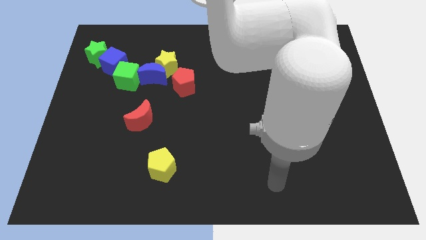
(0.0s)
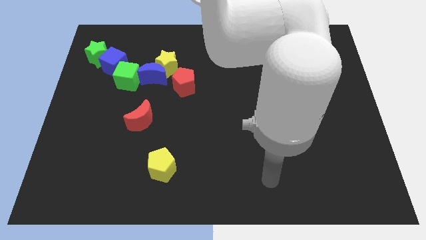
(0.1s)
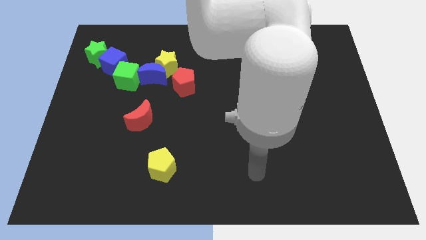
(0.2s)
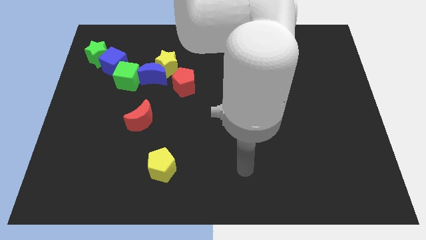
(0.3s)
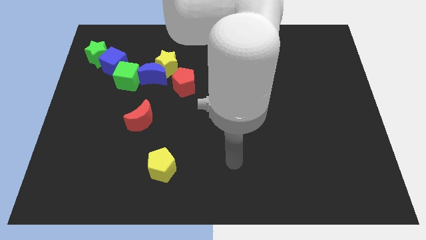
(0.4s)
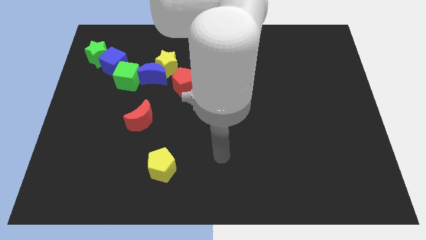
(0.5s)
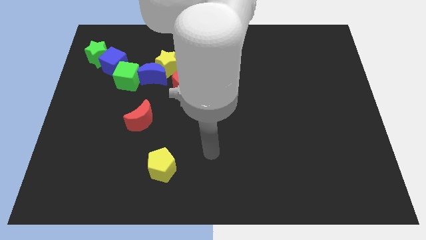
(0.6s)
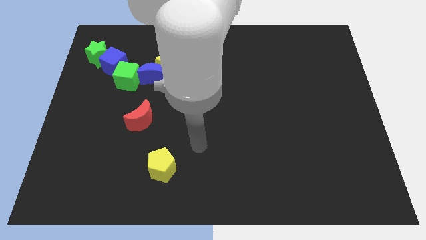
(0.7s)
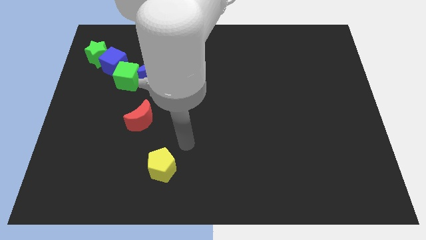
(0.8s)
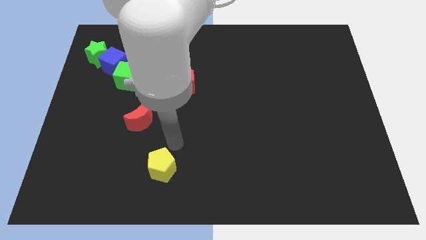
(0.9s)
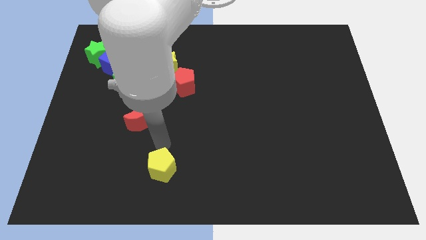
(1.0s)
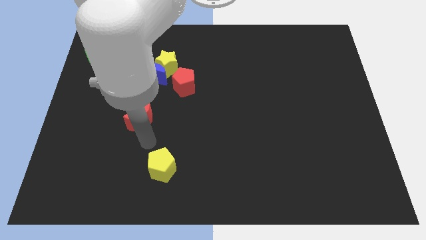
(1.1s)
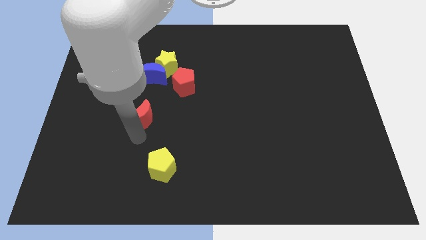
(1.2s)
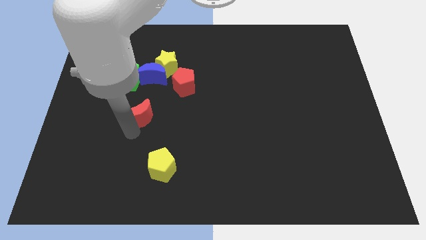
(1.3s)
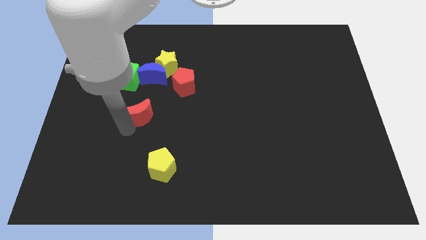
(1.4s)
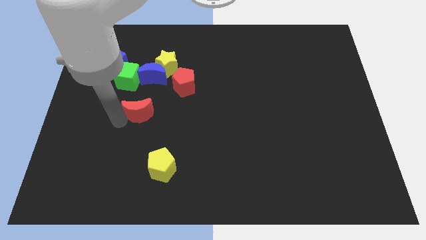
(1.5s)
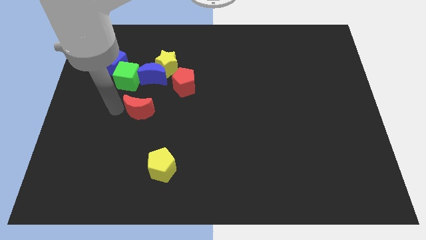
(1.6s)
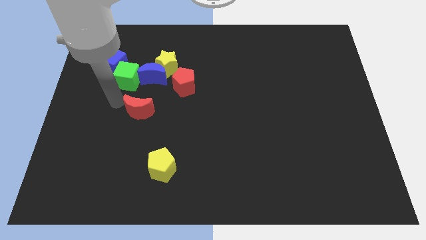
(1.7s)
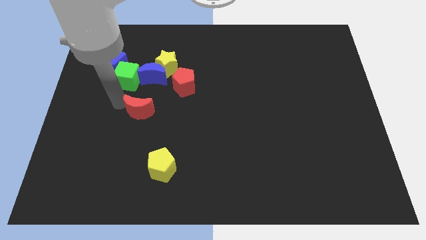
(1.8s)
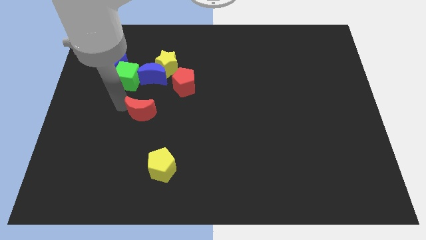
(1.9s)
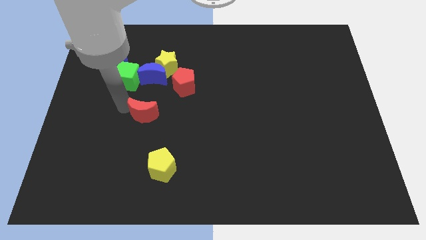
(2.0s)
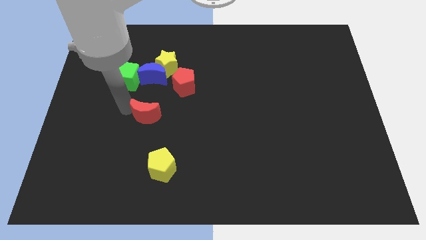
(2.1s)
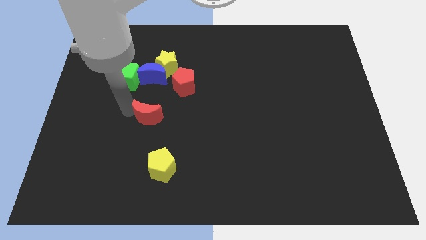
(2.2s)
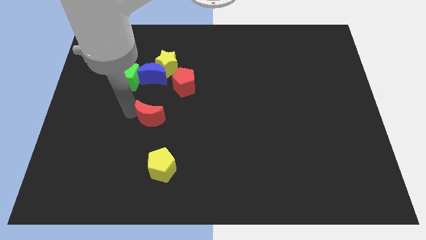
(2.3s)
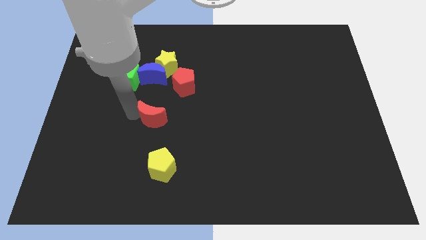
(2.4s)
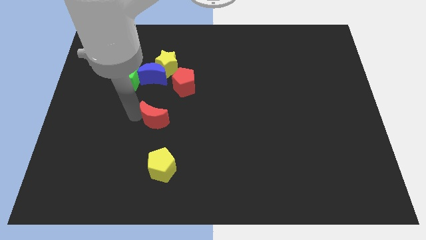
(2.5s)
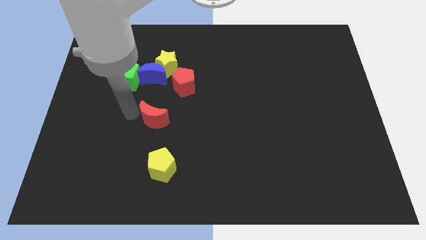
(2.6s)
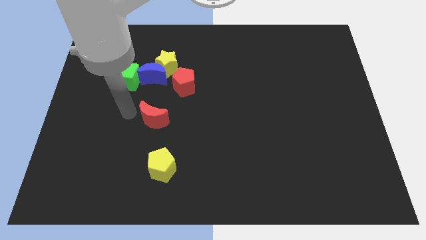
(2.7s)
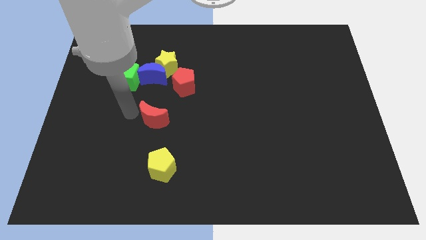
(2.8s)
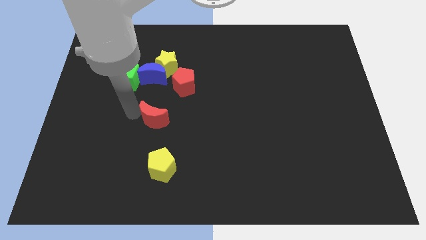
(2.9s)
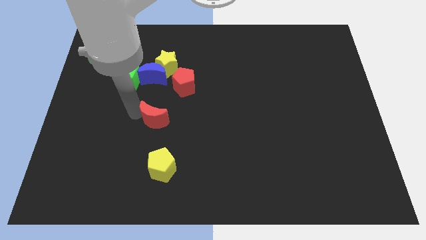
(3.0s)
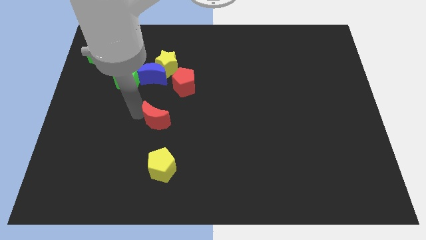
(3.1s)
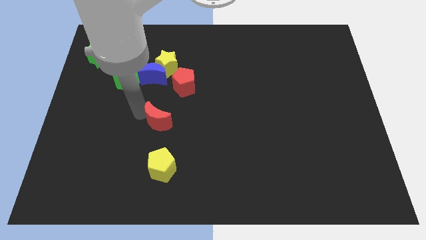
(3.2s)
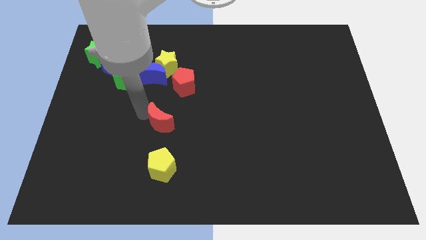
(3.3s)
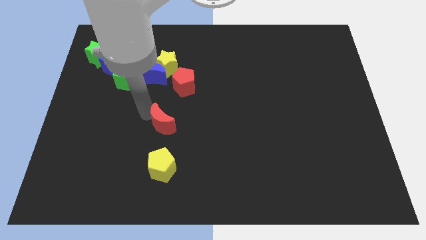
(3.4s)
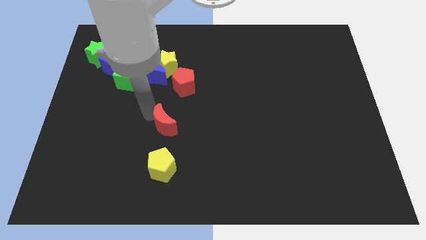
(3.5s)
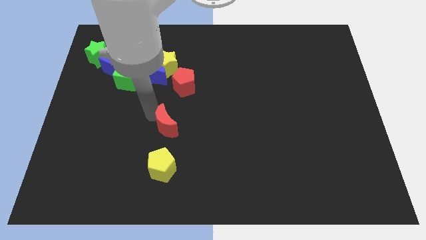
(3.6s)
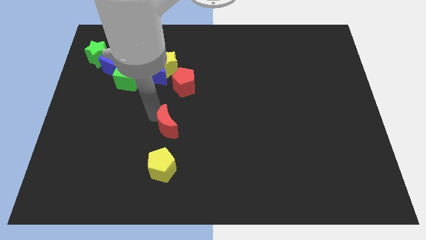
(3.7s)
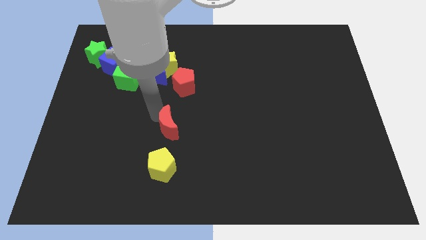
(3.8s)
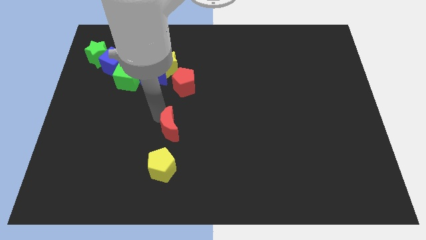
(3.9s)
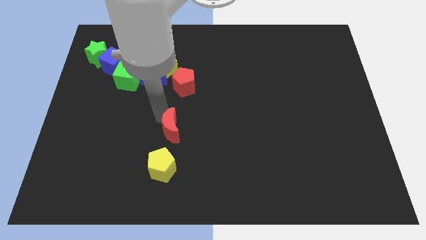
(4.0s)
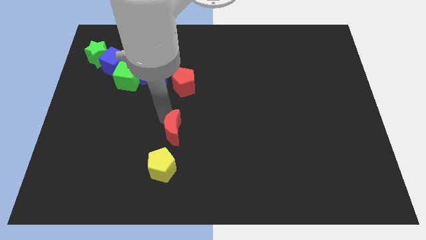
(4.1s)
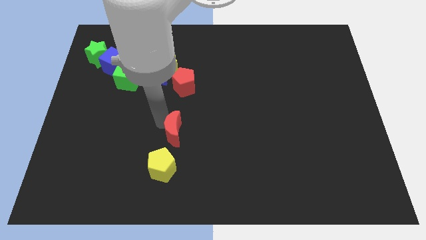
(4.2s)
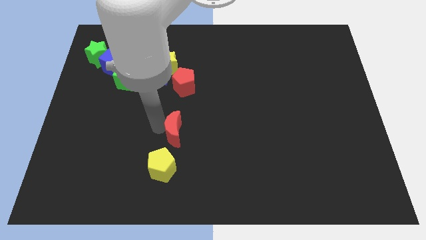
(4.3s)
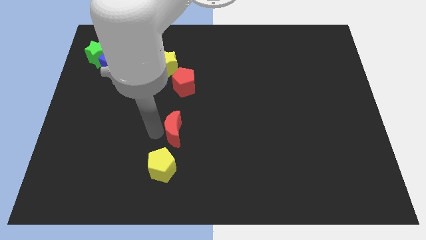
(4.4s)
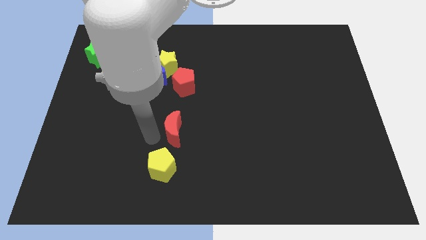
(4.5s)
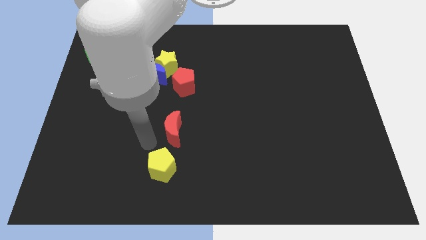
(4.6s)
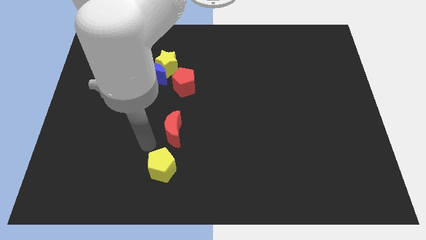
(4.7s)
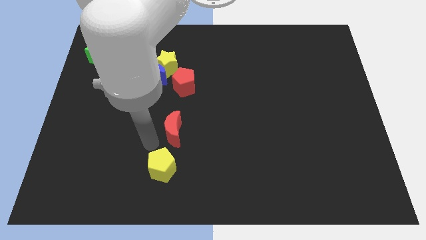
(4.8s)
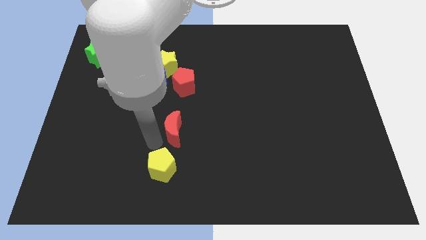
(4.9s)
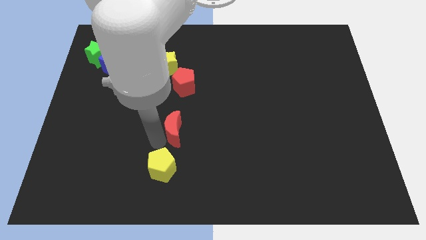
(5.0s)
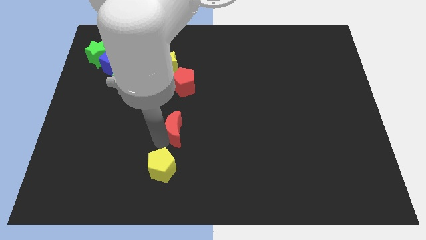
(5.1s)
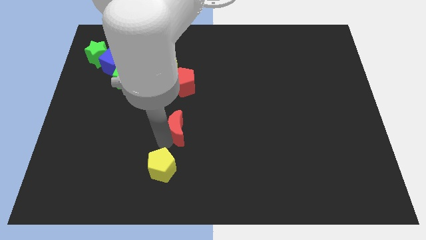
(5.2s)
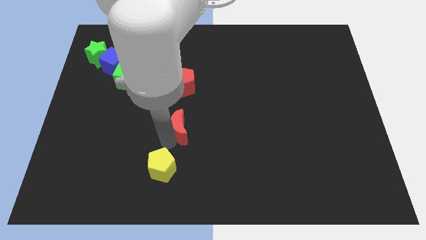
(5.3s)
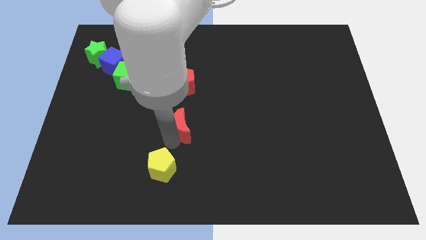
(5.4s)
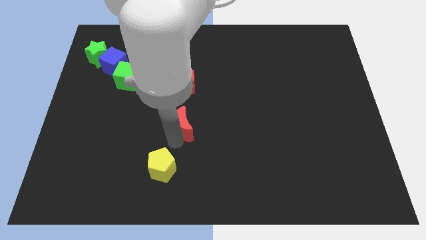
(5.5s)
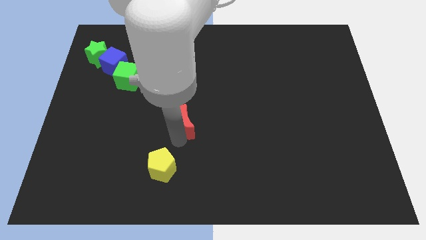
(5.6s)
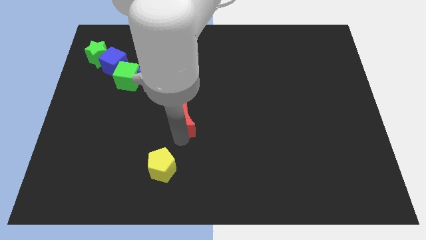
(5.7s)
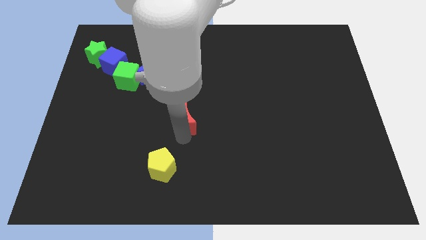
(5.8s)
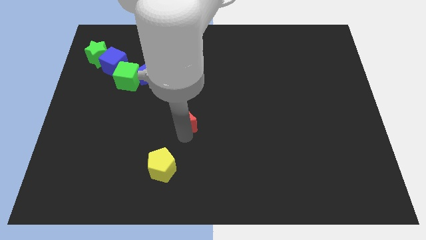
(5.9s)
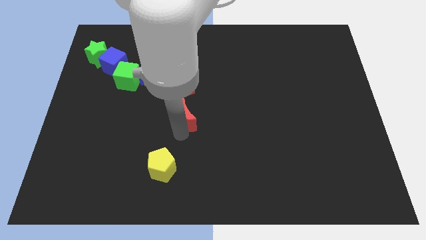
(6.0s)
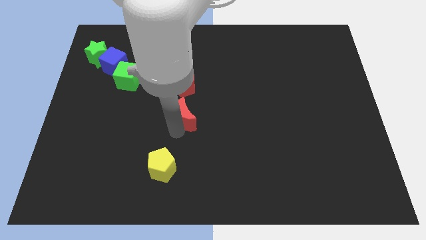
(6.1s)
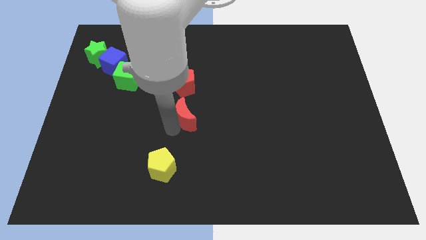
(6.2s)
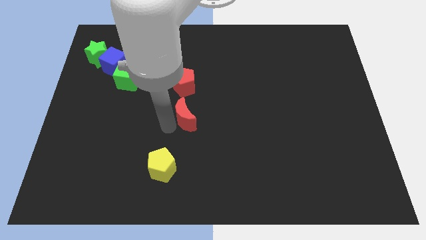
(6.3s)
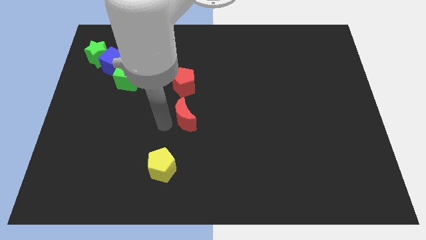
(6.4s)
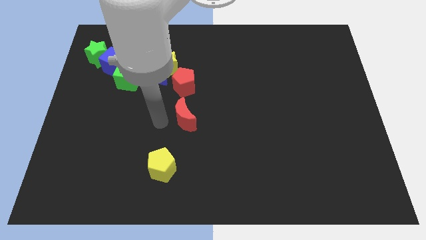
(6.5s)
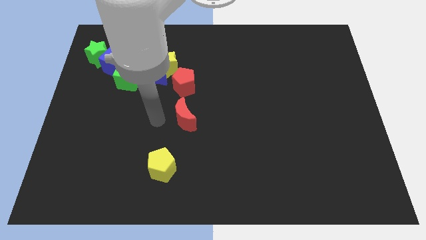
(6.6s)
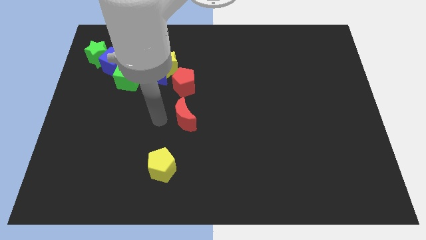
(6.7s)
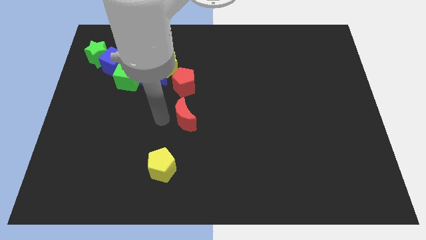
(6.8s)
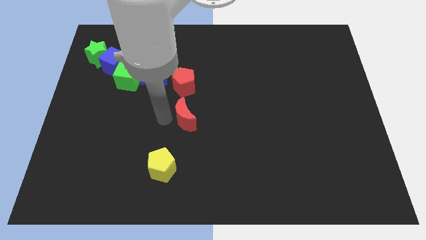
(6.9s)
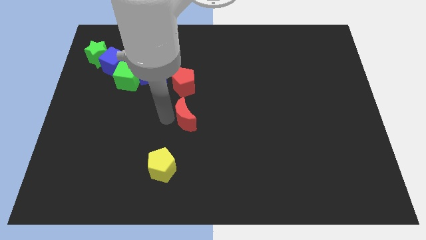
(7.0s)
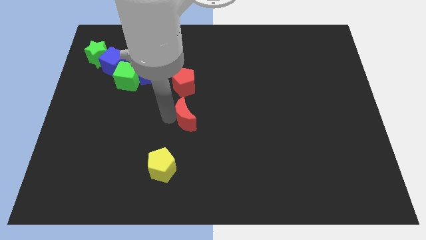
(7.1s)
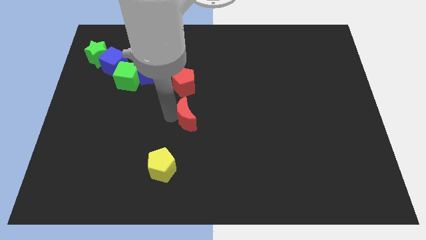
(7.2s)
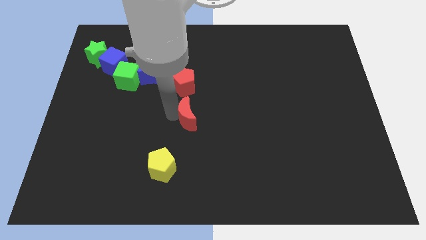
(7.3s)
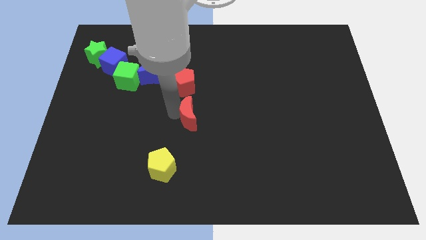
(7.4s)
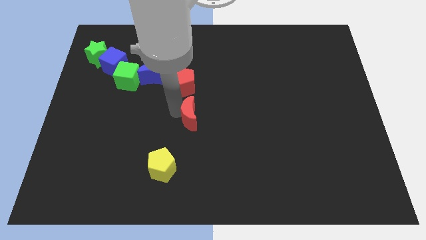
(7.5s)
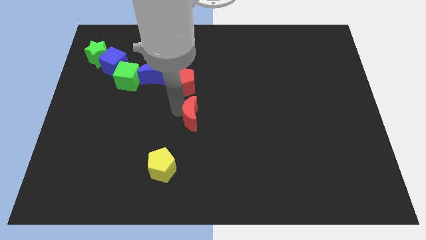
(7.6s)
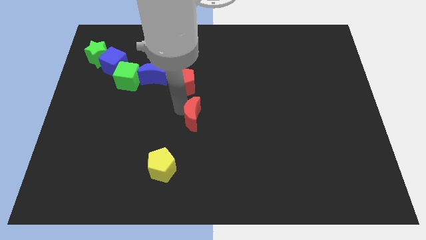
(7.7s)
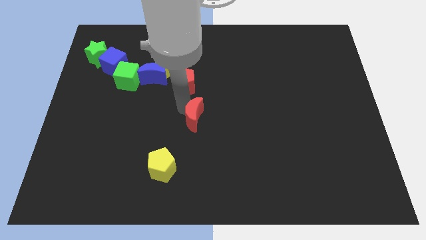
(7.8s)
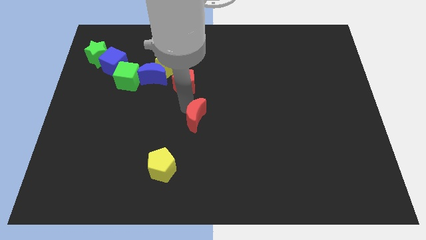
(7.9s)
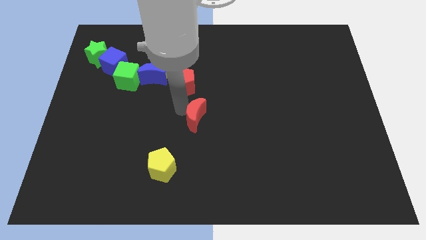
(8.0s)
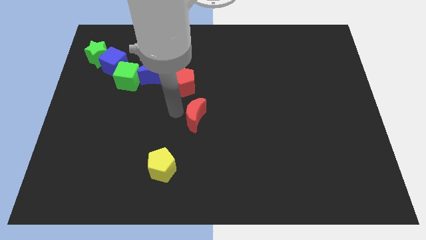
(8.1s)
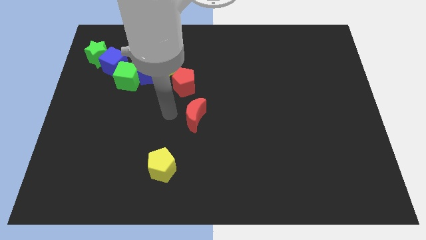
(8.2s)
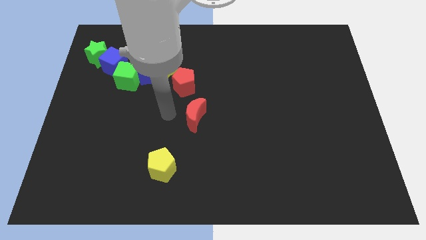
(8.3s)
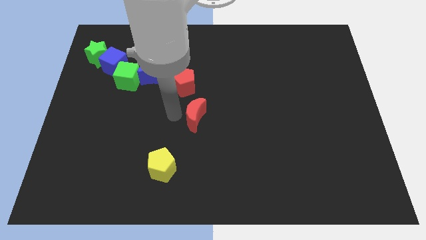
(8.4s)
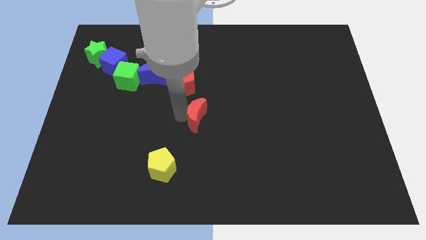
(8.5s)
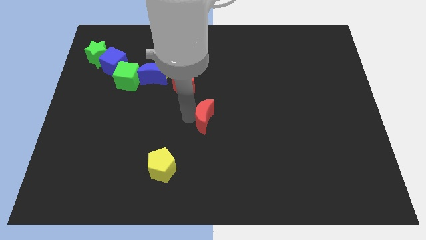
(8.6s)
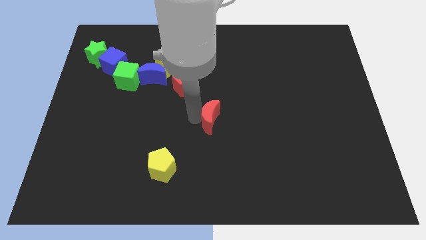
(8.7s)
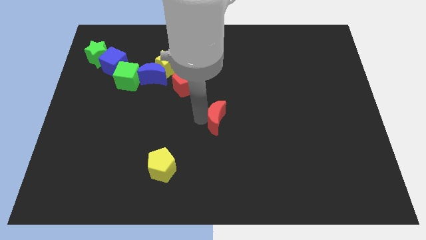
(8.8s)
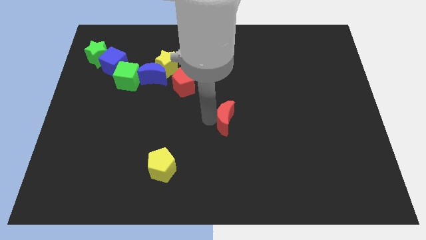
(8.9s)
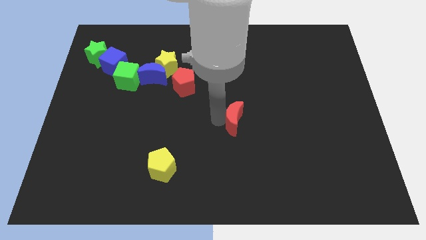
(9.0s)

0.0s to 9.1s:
slide the red moon to the right
